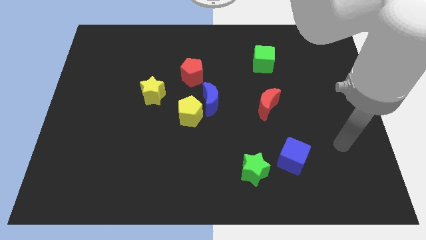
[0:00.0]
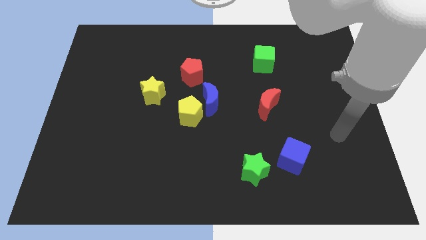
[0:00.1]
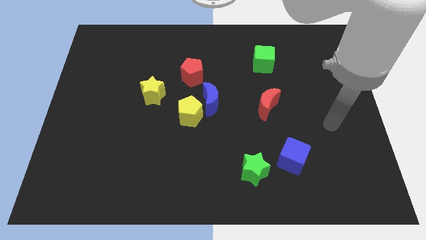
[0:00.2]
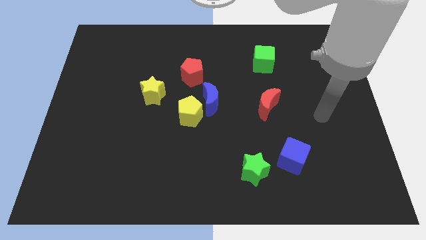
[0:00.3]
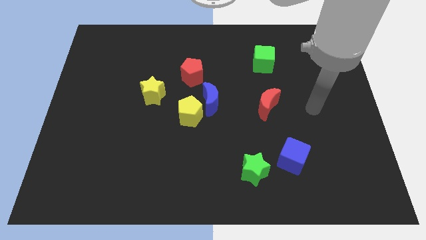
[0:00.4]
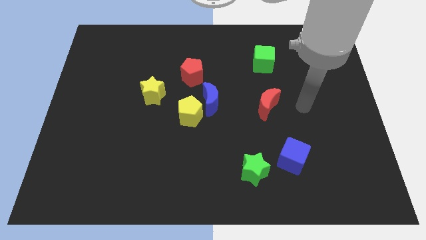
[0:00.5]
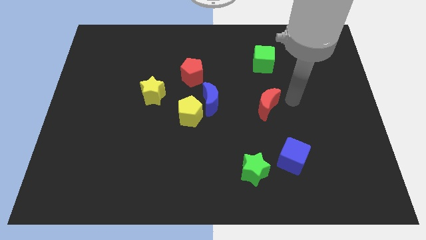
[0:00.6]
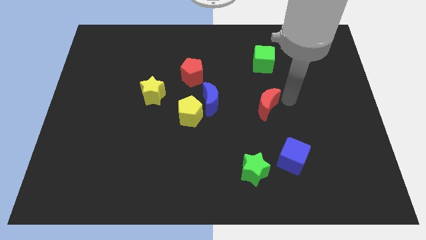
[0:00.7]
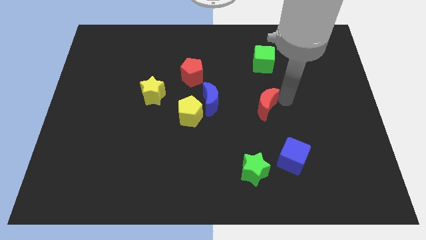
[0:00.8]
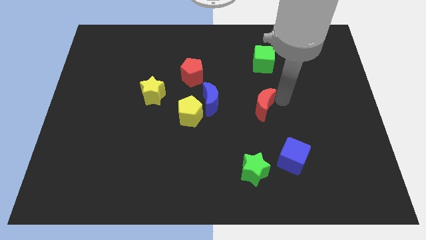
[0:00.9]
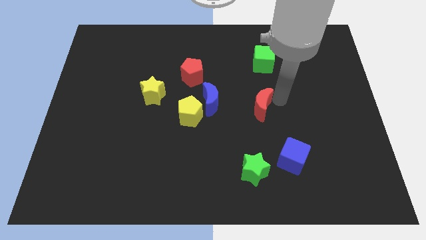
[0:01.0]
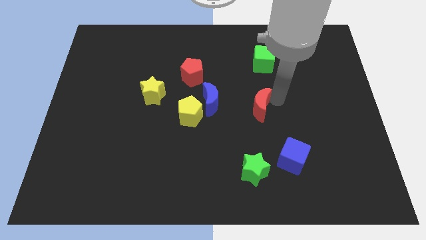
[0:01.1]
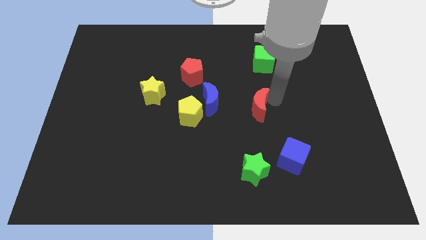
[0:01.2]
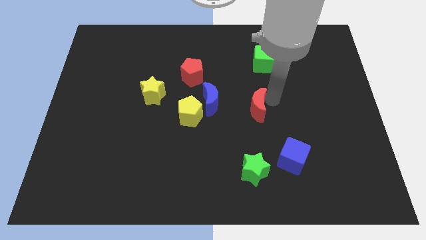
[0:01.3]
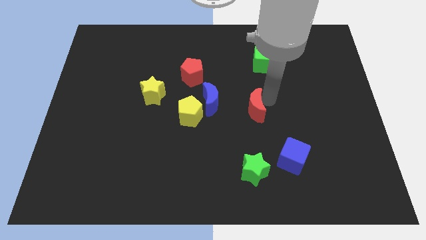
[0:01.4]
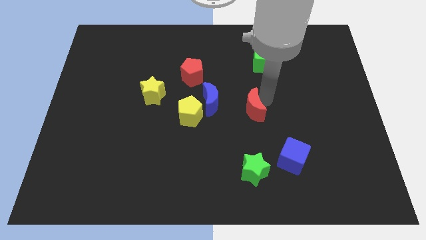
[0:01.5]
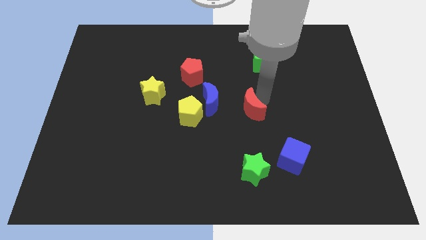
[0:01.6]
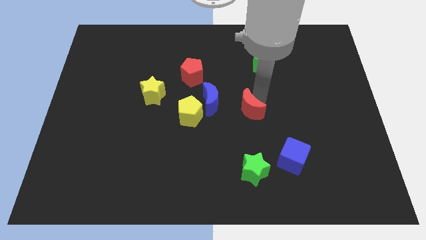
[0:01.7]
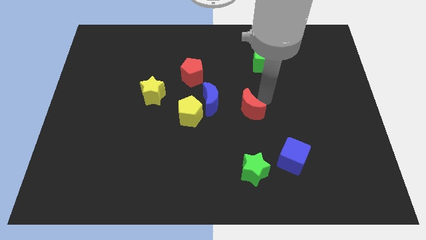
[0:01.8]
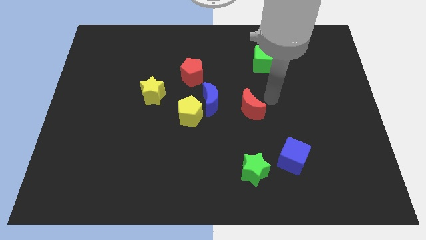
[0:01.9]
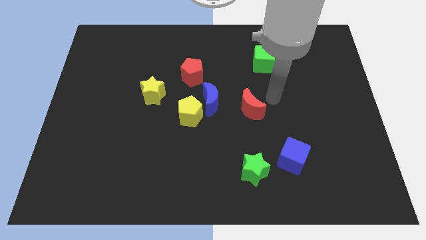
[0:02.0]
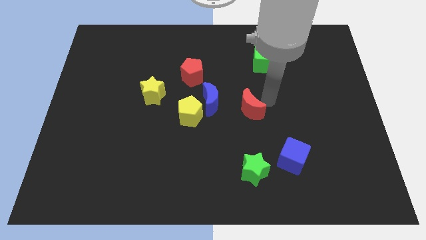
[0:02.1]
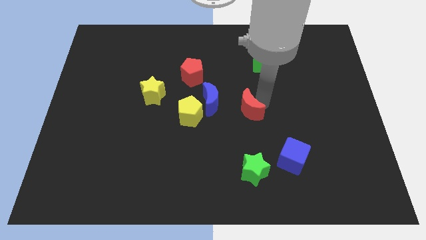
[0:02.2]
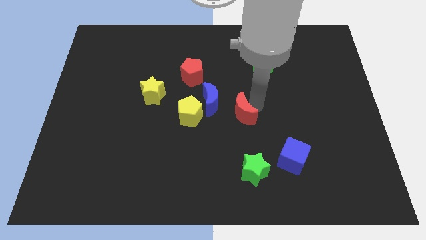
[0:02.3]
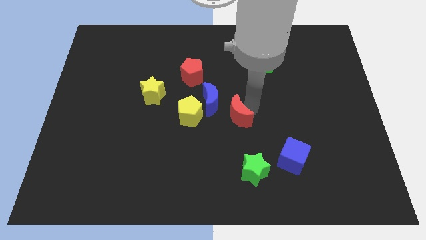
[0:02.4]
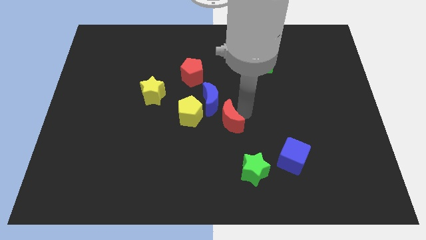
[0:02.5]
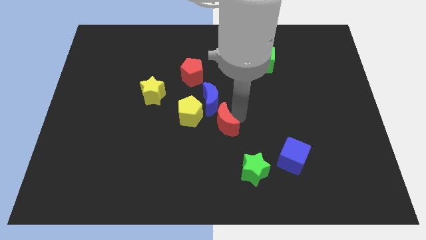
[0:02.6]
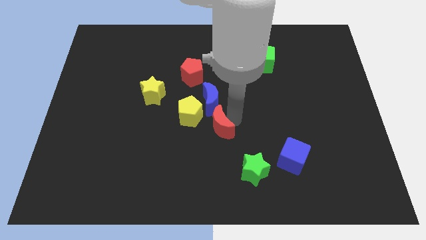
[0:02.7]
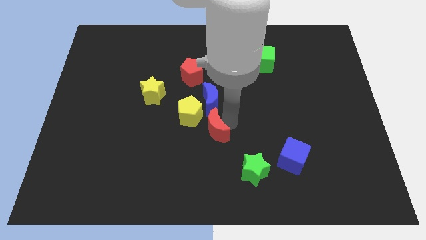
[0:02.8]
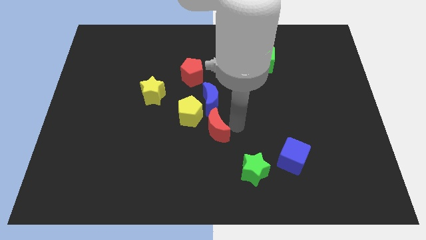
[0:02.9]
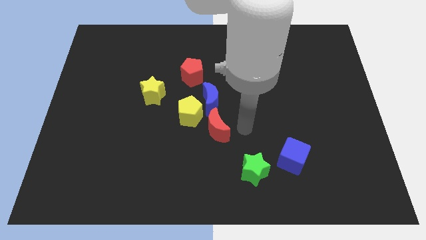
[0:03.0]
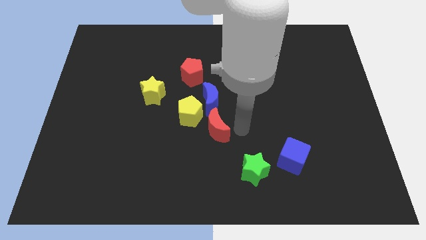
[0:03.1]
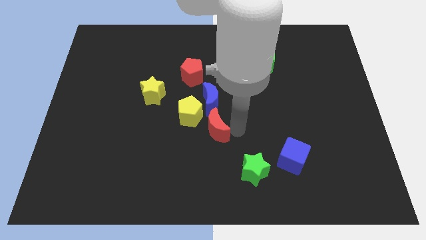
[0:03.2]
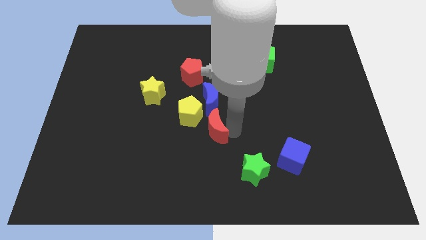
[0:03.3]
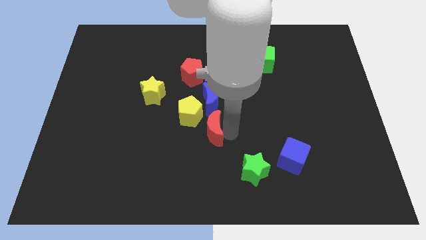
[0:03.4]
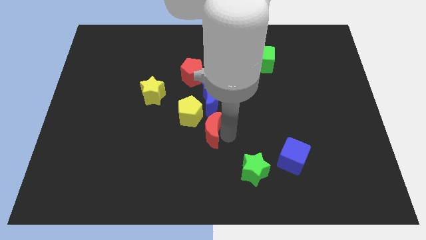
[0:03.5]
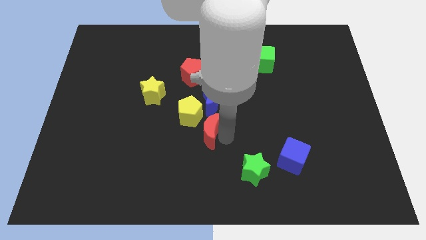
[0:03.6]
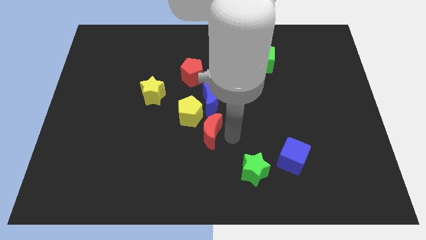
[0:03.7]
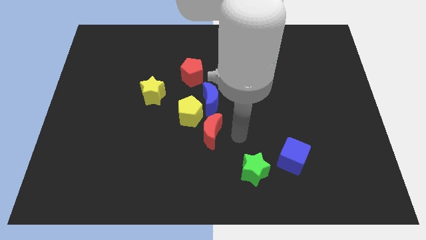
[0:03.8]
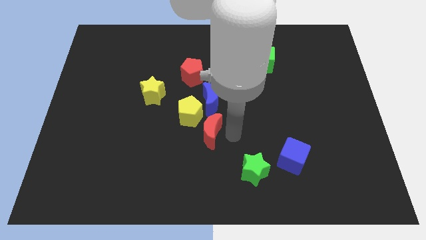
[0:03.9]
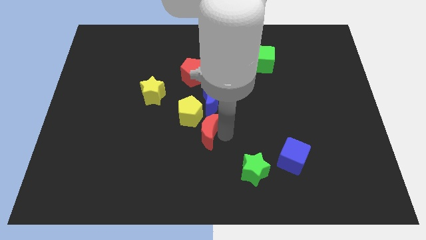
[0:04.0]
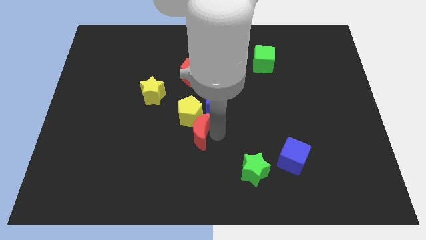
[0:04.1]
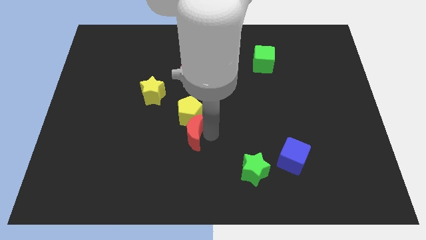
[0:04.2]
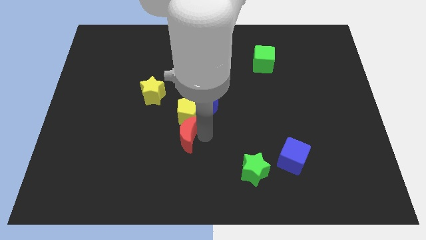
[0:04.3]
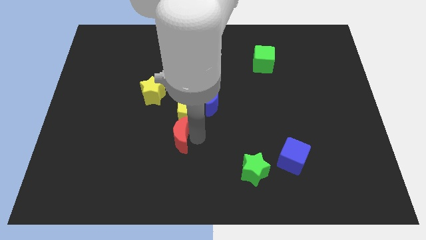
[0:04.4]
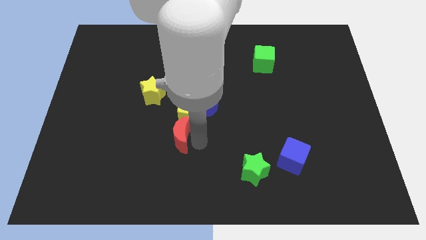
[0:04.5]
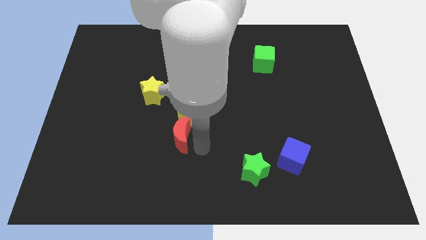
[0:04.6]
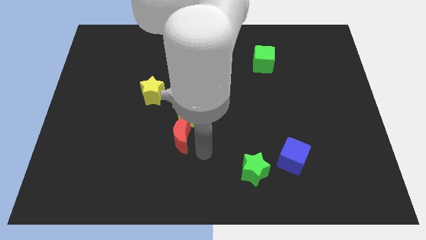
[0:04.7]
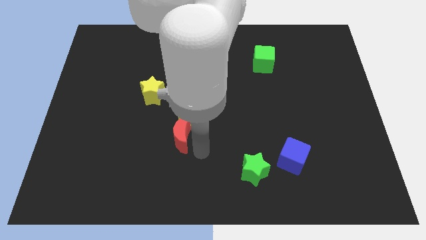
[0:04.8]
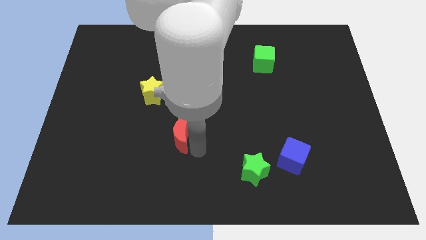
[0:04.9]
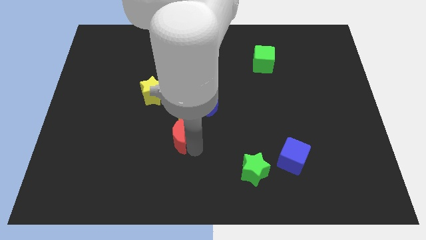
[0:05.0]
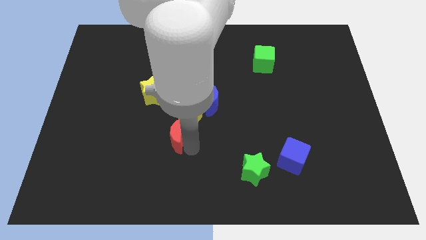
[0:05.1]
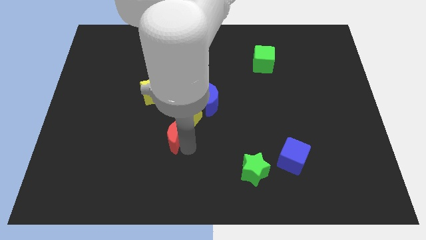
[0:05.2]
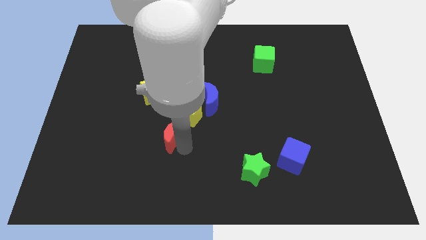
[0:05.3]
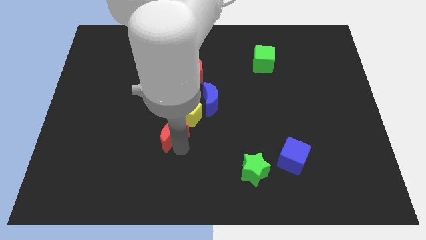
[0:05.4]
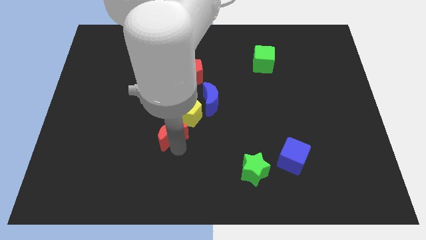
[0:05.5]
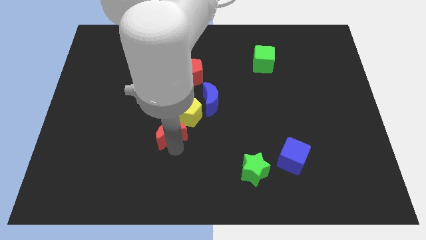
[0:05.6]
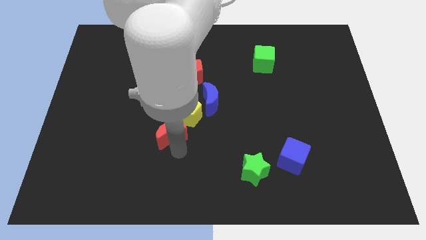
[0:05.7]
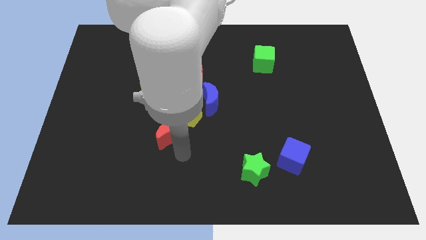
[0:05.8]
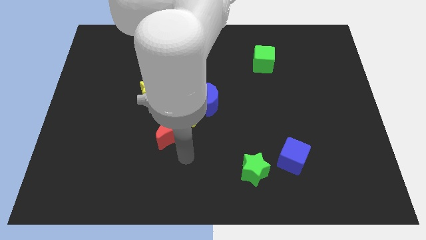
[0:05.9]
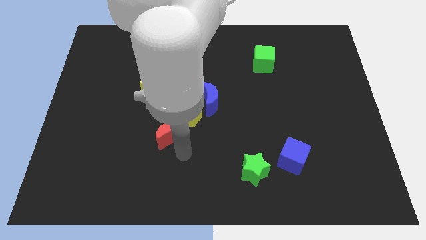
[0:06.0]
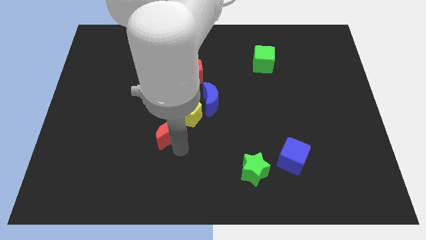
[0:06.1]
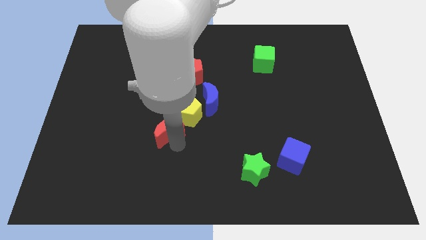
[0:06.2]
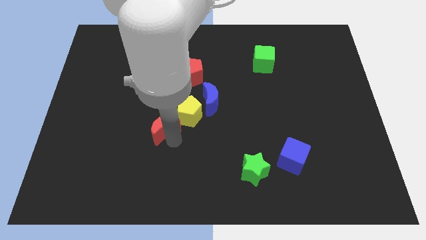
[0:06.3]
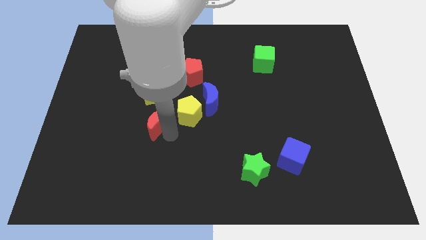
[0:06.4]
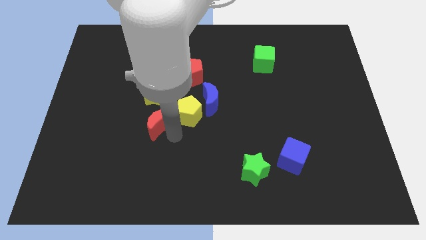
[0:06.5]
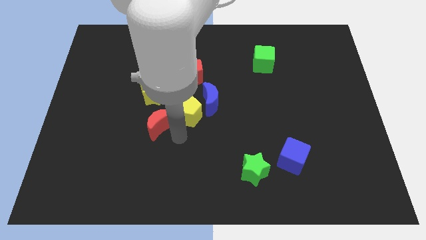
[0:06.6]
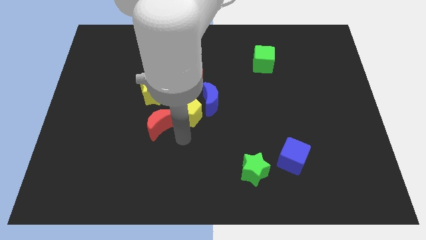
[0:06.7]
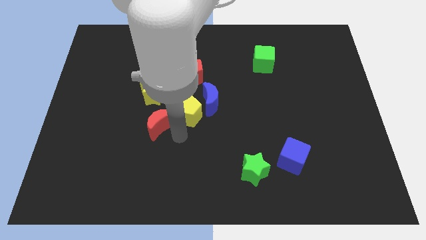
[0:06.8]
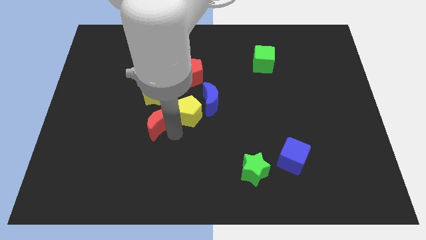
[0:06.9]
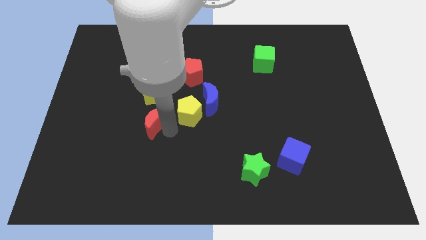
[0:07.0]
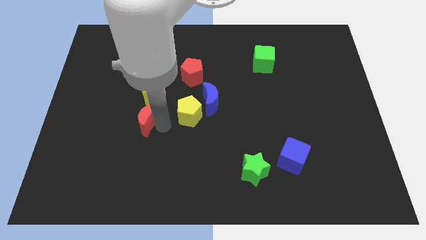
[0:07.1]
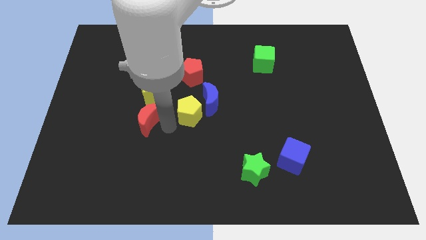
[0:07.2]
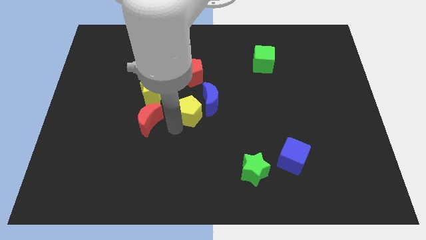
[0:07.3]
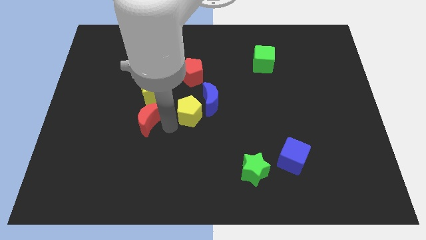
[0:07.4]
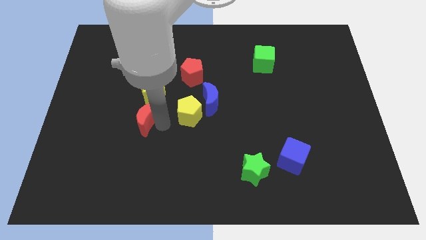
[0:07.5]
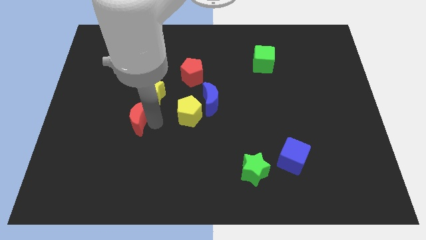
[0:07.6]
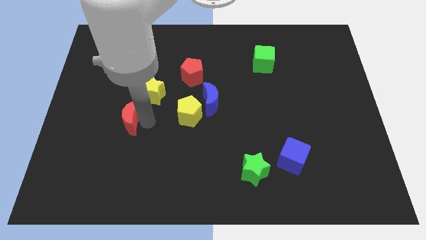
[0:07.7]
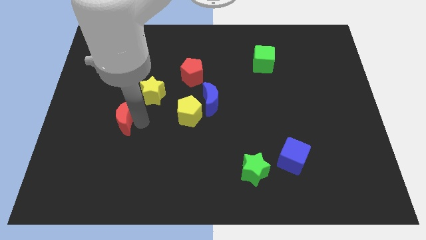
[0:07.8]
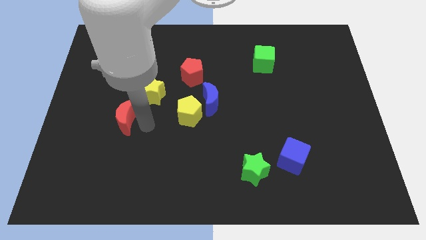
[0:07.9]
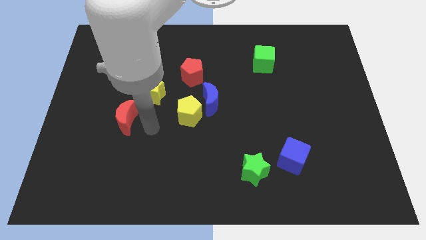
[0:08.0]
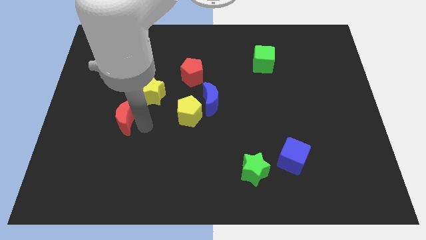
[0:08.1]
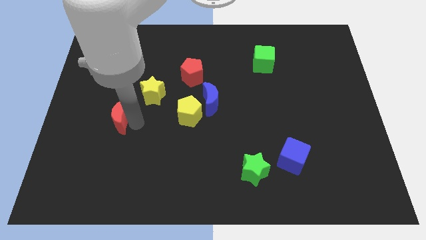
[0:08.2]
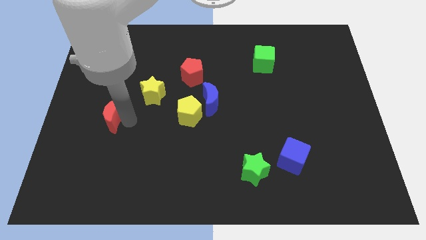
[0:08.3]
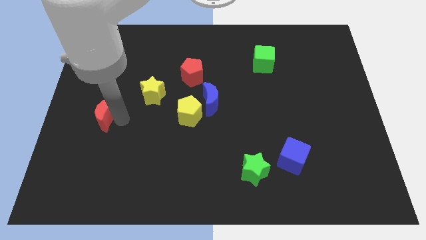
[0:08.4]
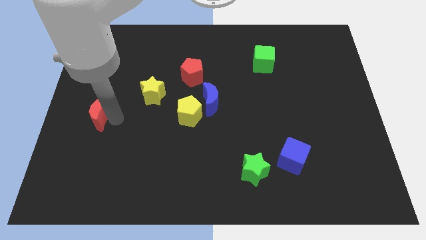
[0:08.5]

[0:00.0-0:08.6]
move the red moon to the left side
